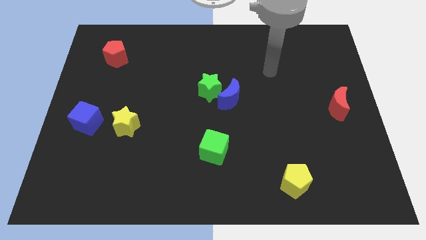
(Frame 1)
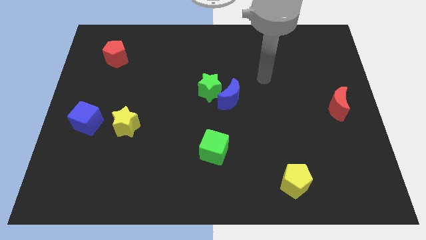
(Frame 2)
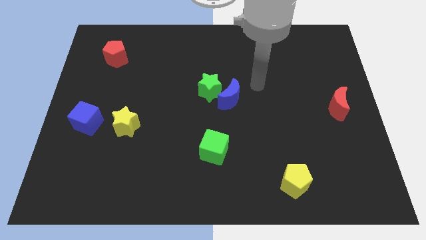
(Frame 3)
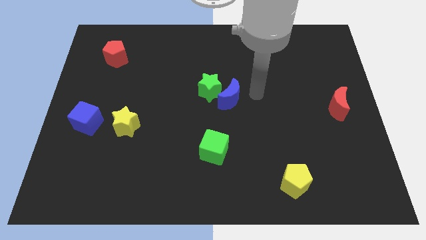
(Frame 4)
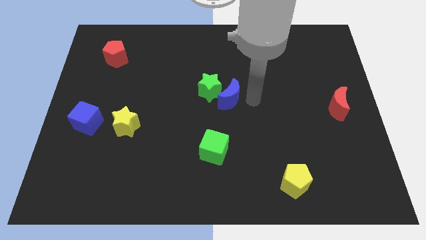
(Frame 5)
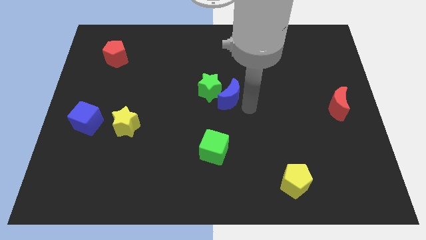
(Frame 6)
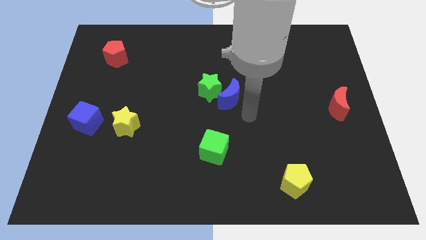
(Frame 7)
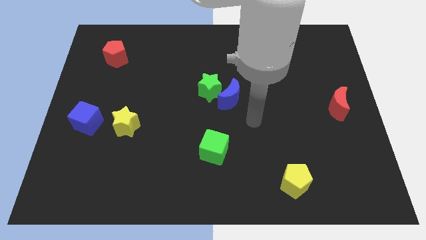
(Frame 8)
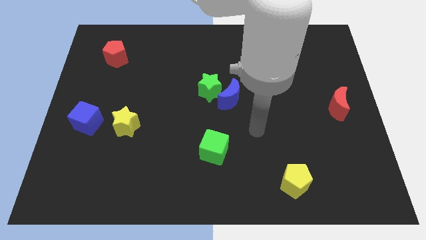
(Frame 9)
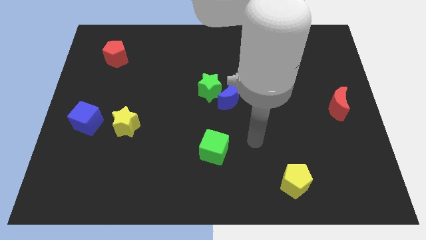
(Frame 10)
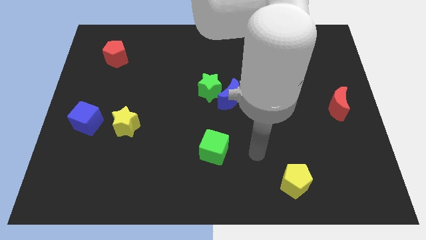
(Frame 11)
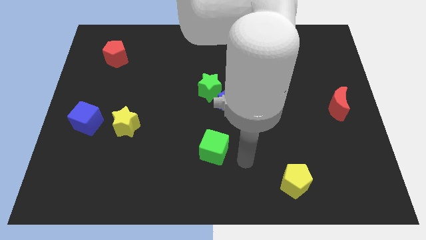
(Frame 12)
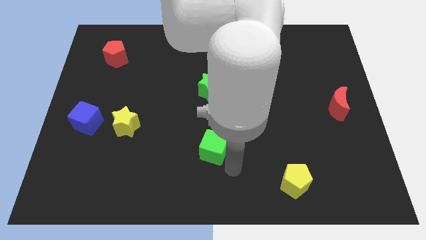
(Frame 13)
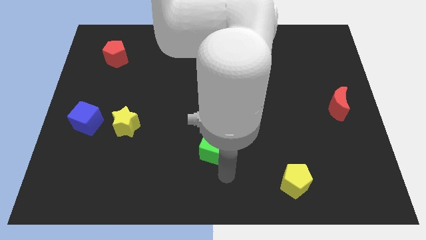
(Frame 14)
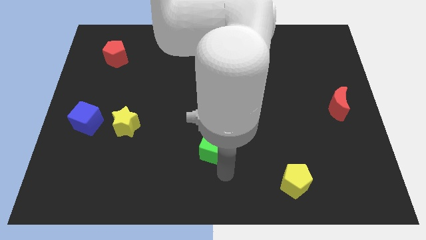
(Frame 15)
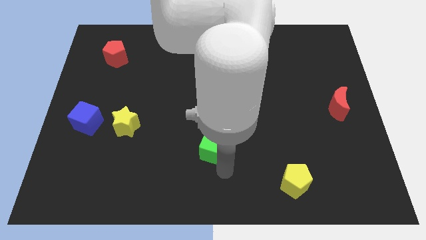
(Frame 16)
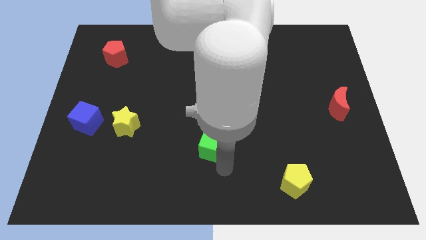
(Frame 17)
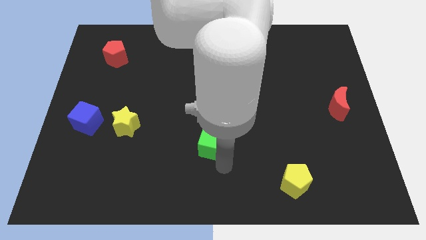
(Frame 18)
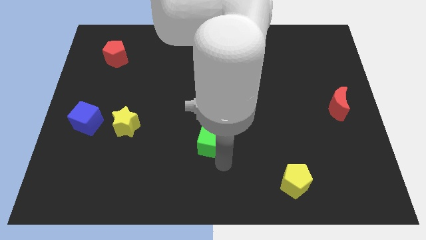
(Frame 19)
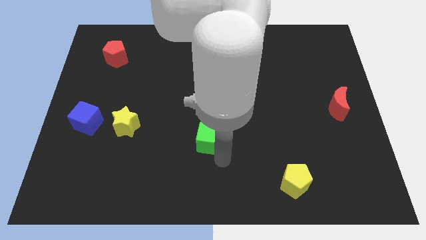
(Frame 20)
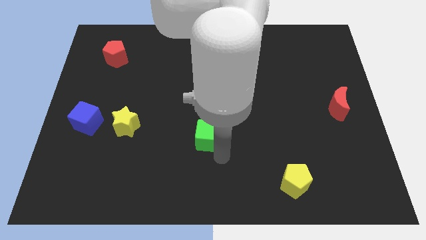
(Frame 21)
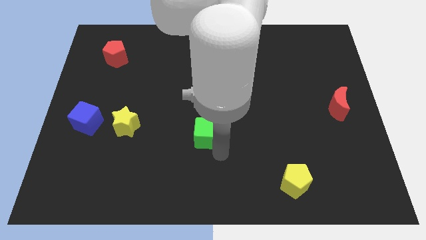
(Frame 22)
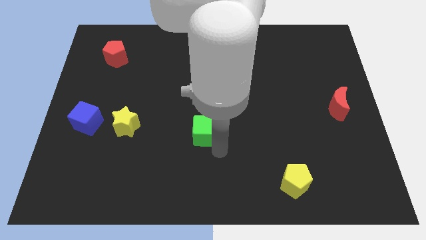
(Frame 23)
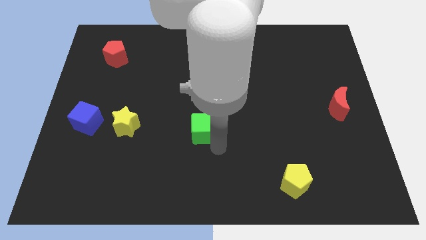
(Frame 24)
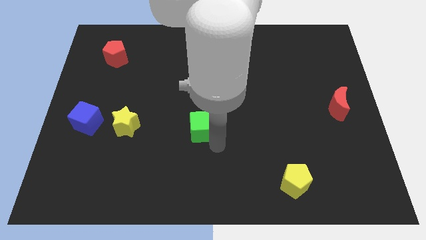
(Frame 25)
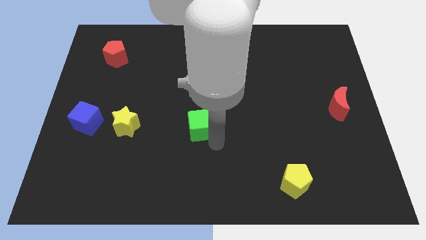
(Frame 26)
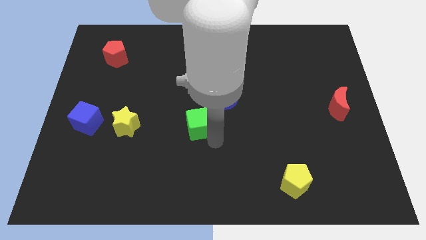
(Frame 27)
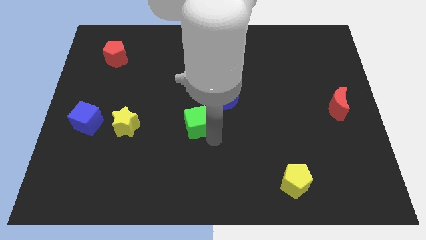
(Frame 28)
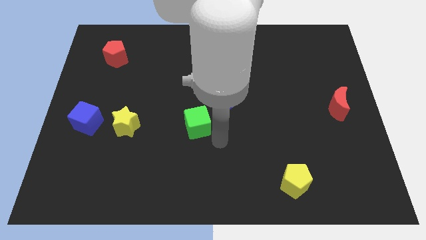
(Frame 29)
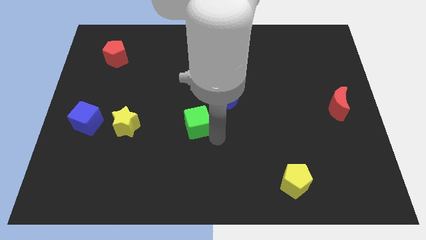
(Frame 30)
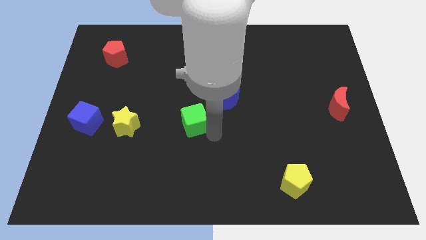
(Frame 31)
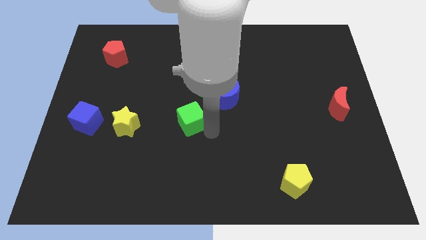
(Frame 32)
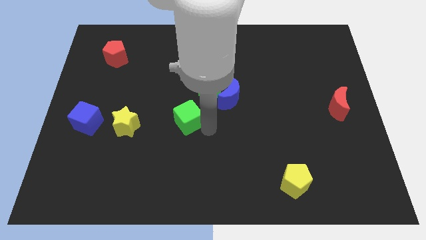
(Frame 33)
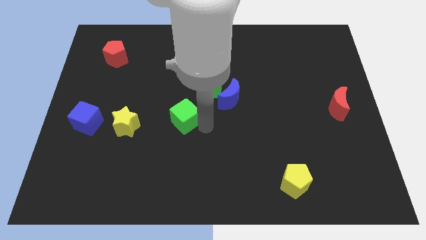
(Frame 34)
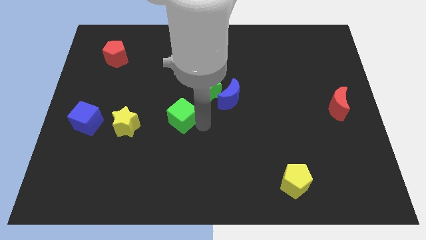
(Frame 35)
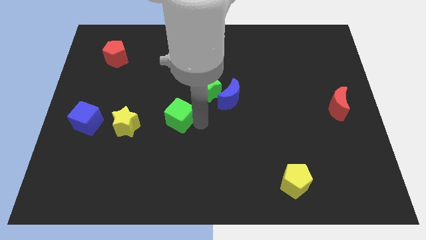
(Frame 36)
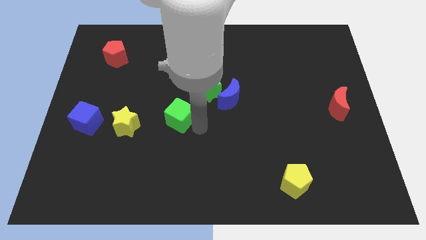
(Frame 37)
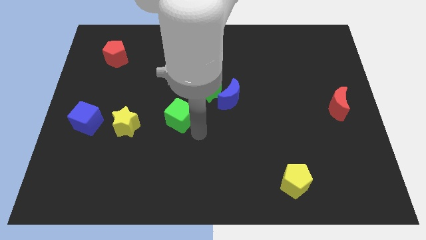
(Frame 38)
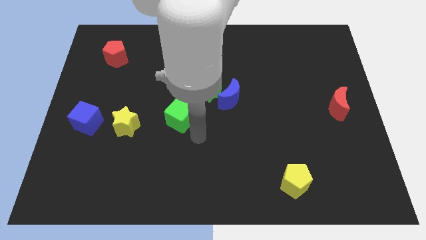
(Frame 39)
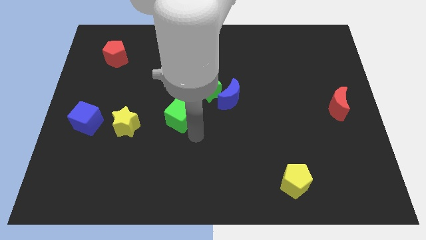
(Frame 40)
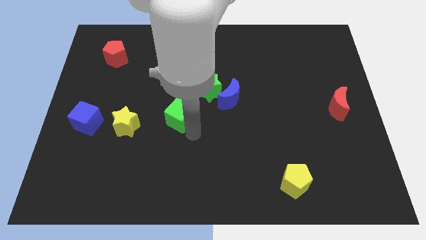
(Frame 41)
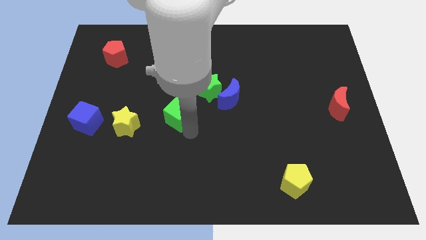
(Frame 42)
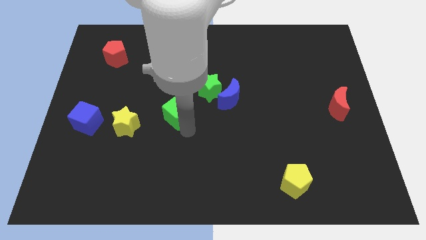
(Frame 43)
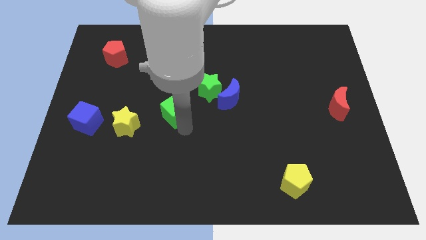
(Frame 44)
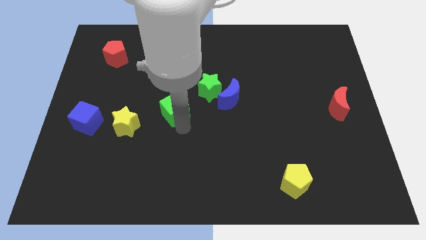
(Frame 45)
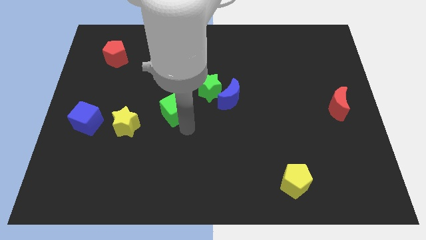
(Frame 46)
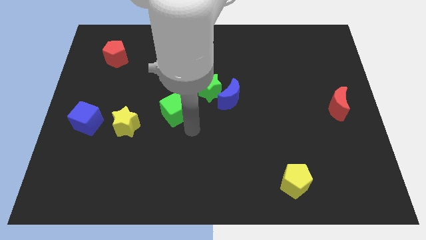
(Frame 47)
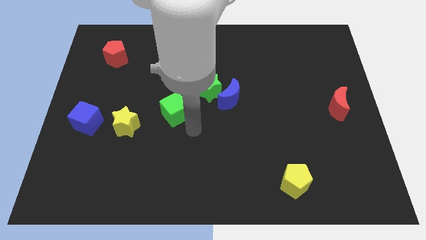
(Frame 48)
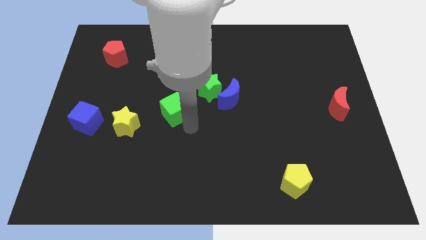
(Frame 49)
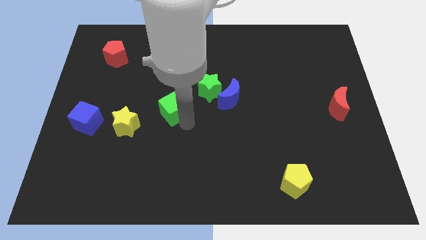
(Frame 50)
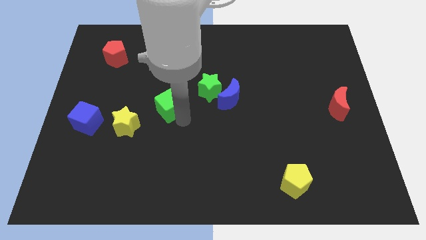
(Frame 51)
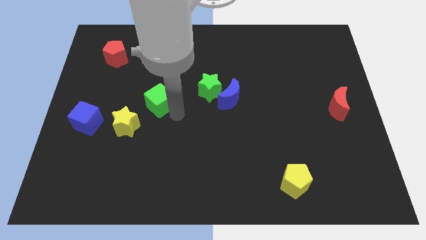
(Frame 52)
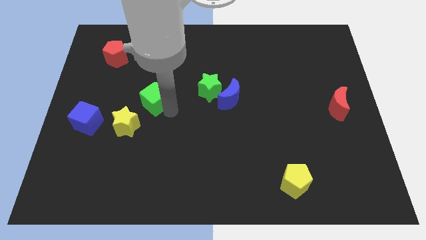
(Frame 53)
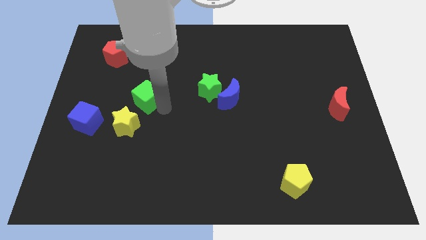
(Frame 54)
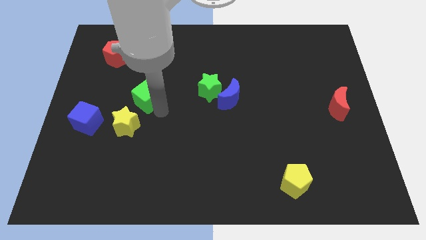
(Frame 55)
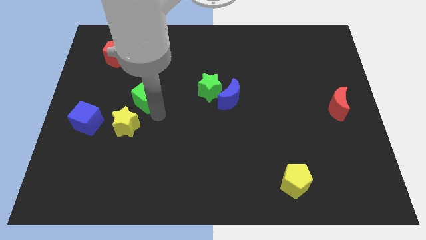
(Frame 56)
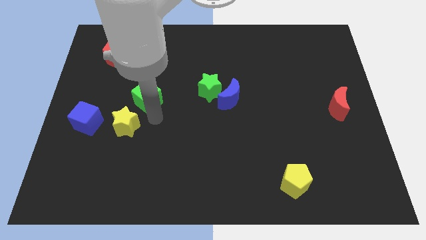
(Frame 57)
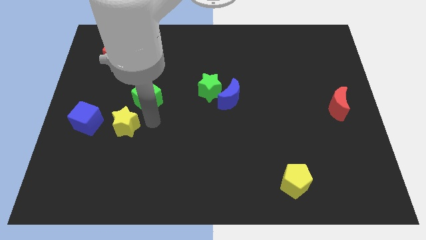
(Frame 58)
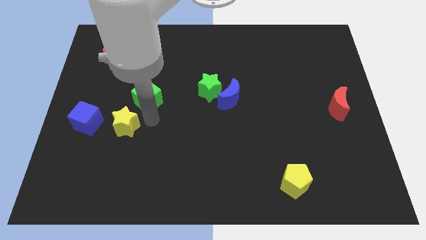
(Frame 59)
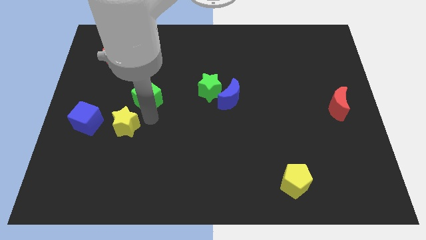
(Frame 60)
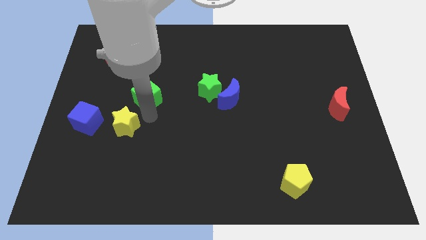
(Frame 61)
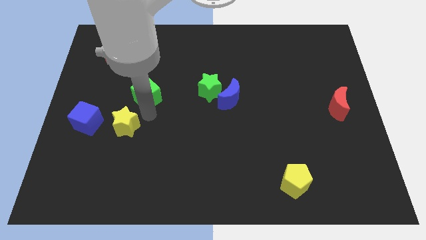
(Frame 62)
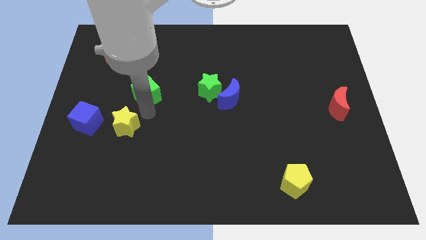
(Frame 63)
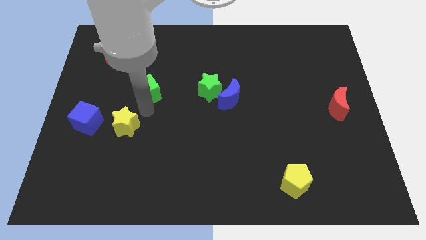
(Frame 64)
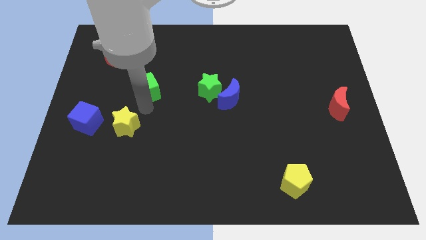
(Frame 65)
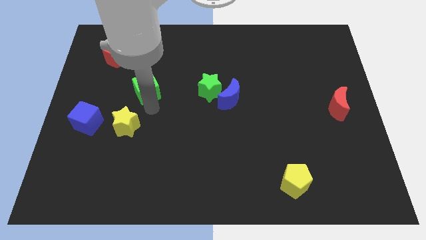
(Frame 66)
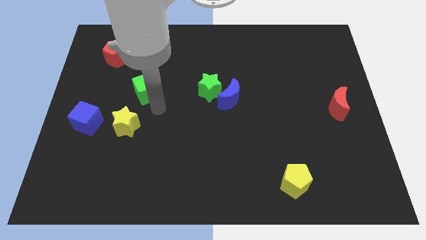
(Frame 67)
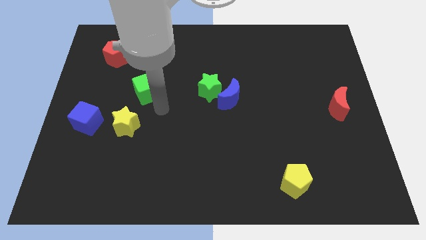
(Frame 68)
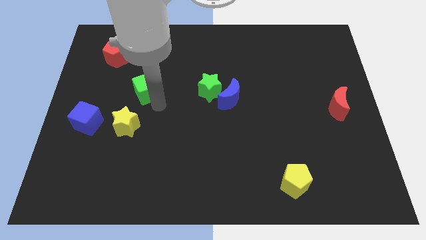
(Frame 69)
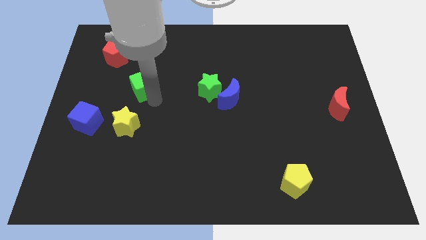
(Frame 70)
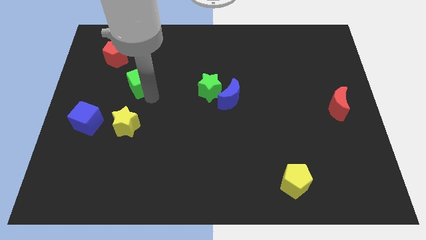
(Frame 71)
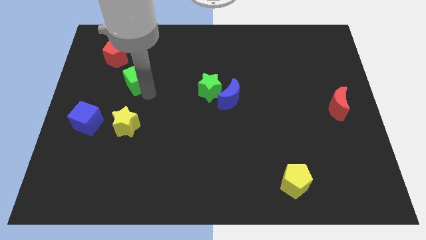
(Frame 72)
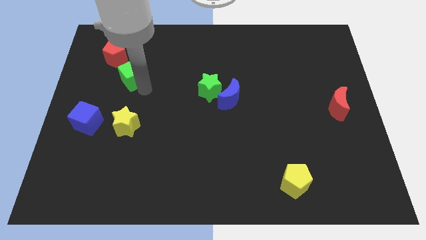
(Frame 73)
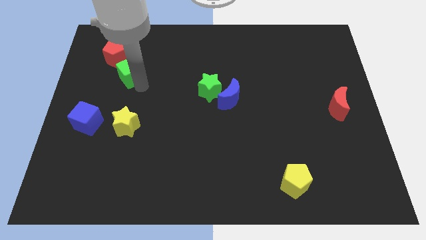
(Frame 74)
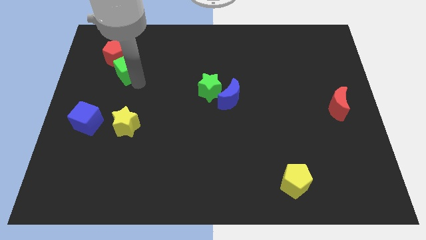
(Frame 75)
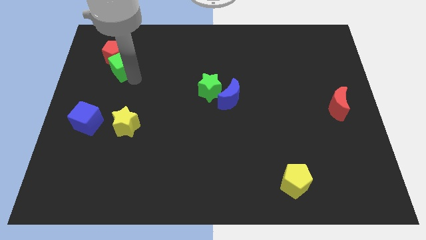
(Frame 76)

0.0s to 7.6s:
push the green cube close to the red pentagon
